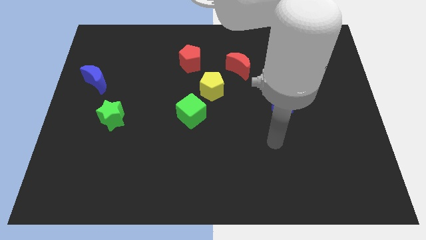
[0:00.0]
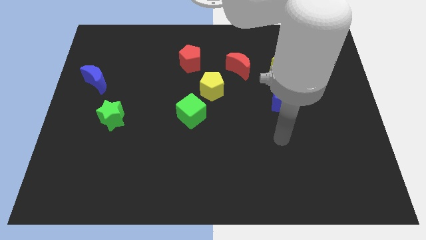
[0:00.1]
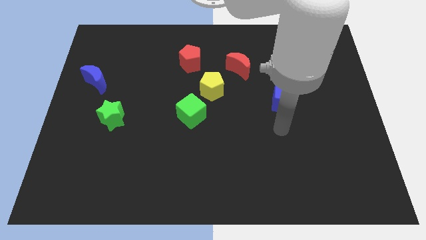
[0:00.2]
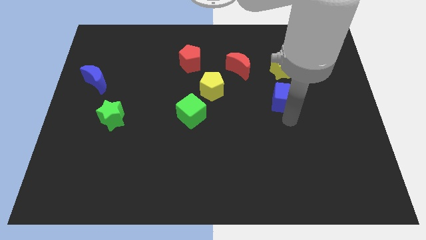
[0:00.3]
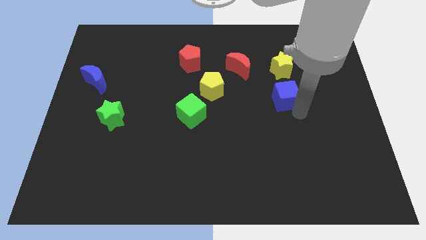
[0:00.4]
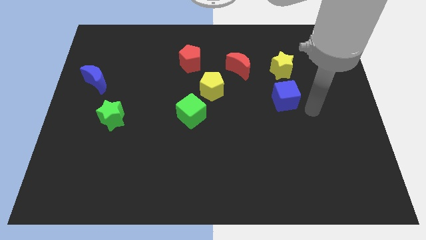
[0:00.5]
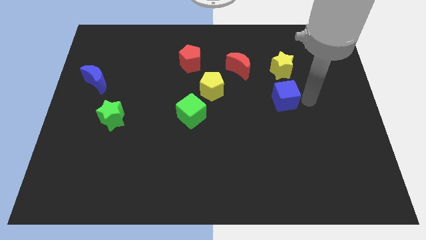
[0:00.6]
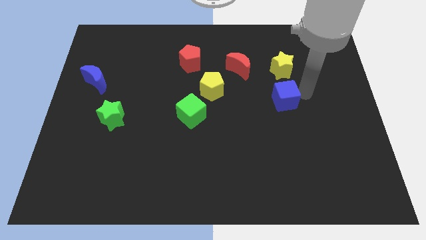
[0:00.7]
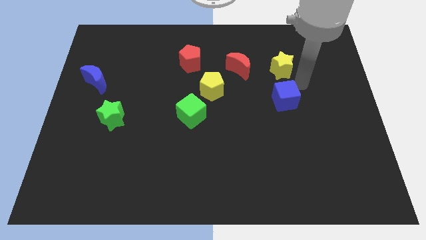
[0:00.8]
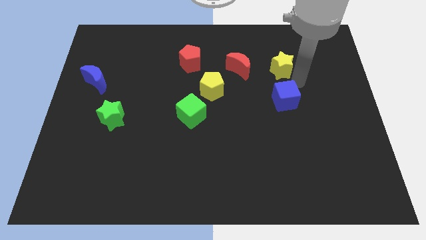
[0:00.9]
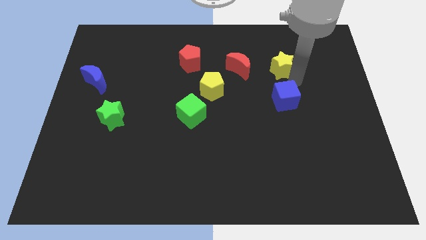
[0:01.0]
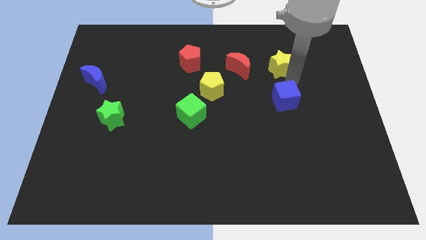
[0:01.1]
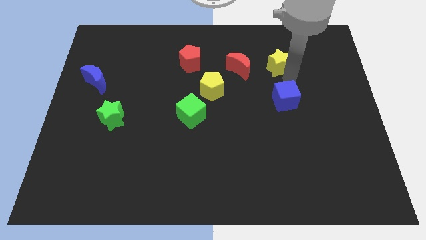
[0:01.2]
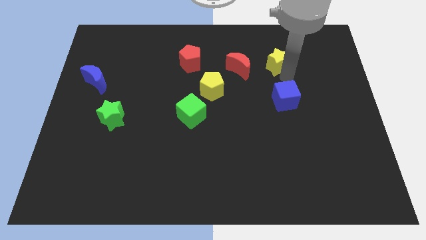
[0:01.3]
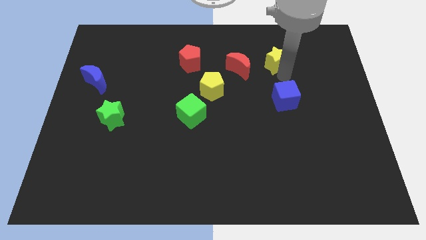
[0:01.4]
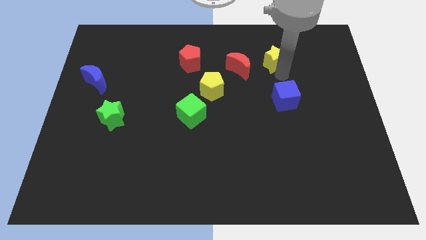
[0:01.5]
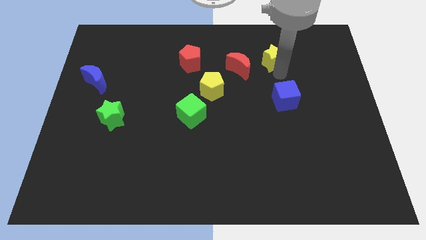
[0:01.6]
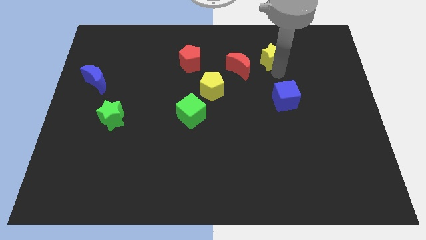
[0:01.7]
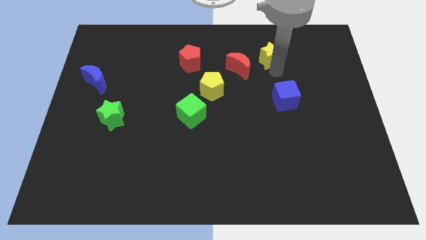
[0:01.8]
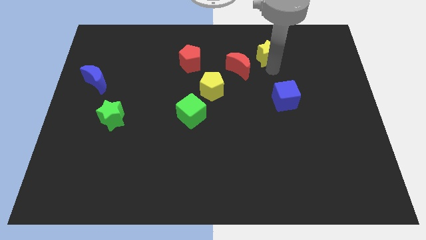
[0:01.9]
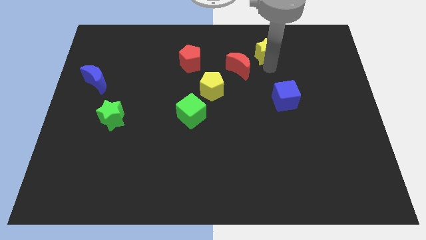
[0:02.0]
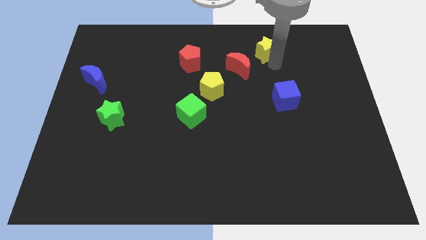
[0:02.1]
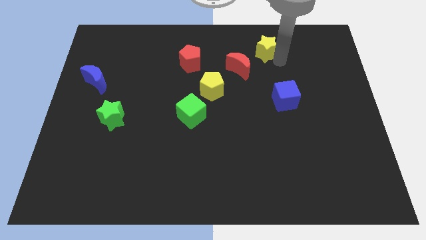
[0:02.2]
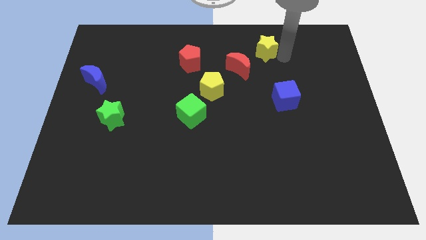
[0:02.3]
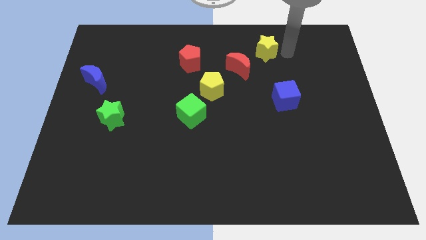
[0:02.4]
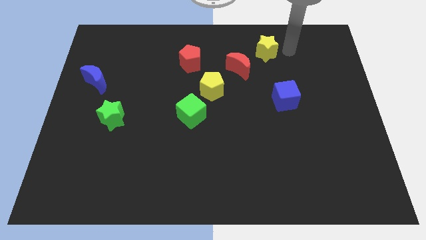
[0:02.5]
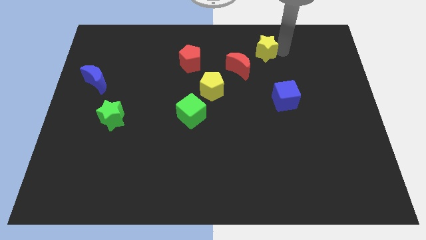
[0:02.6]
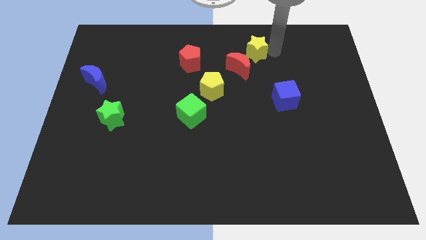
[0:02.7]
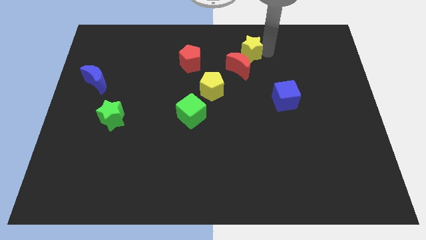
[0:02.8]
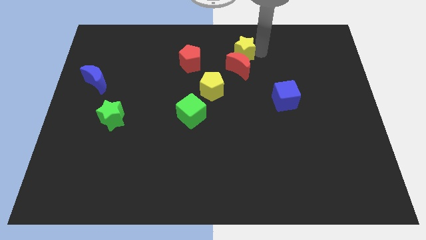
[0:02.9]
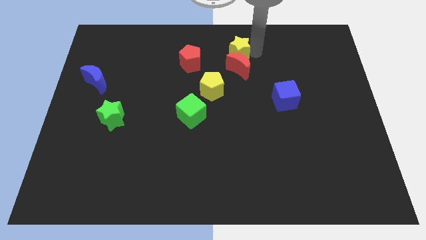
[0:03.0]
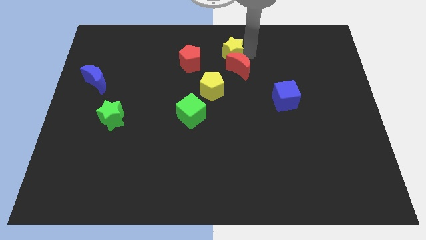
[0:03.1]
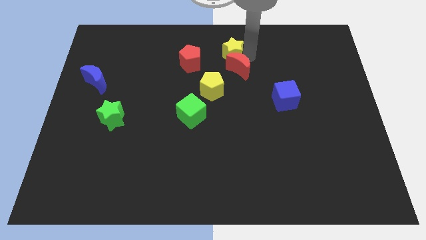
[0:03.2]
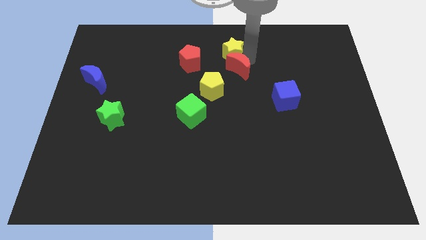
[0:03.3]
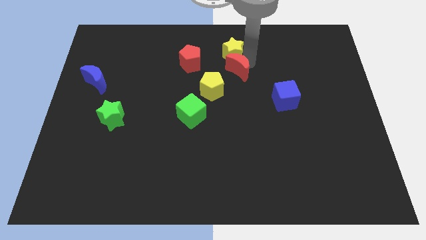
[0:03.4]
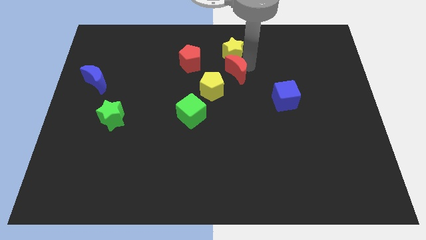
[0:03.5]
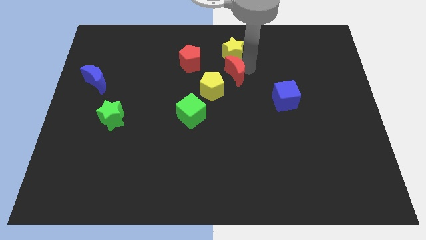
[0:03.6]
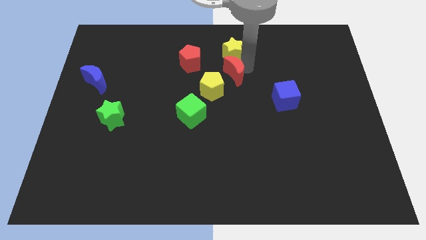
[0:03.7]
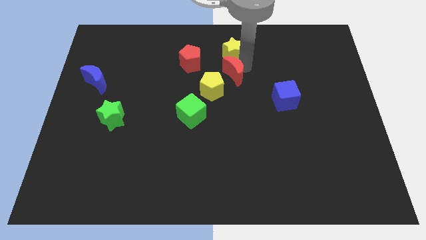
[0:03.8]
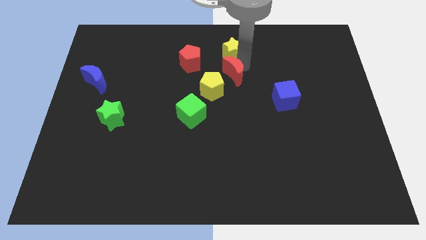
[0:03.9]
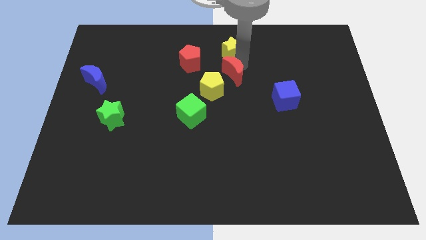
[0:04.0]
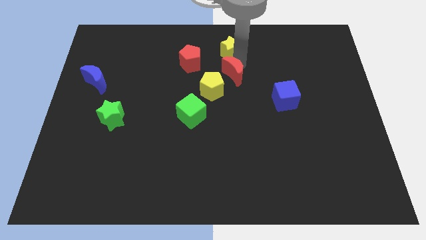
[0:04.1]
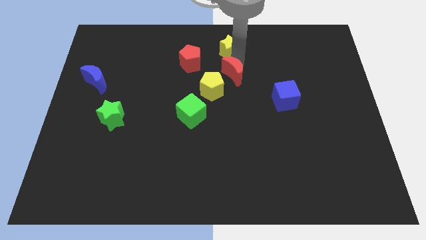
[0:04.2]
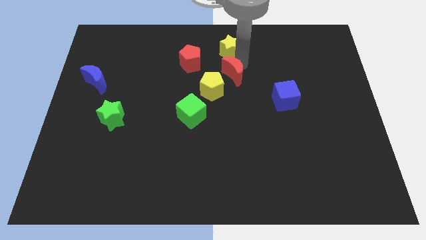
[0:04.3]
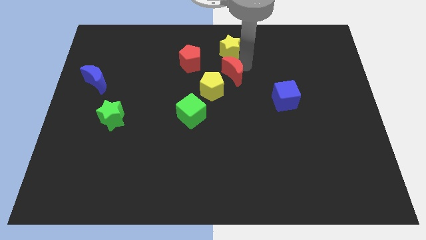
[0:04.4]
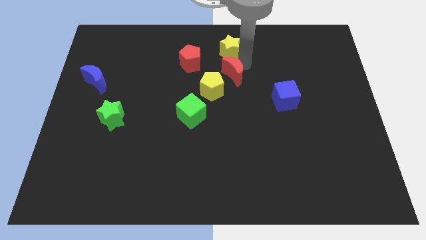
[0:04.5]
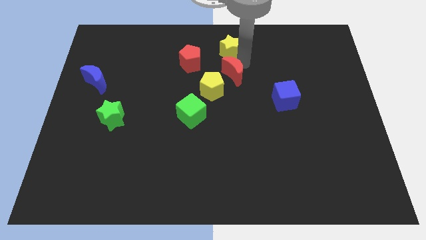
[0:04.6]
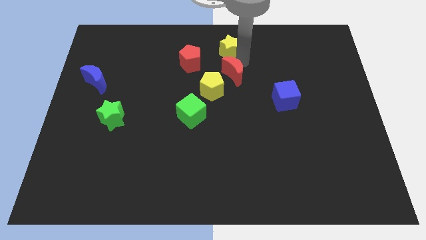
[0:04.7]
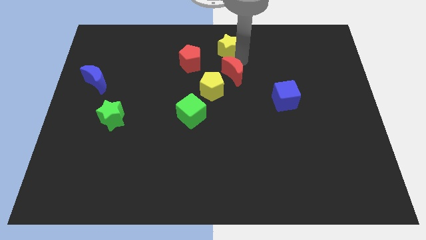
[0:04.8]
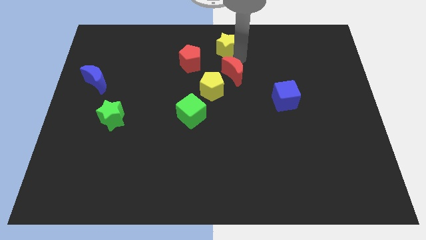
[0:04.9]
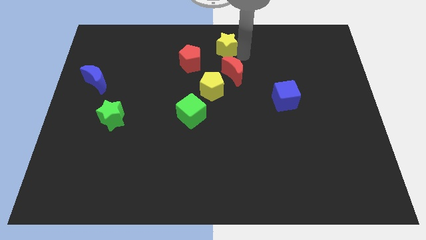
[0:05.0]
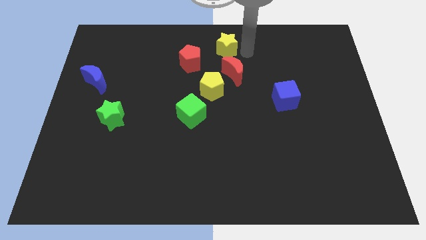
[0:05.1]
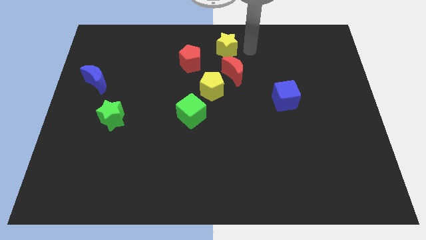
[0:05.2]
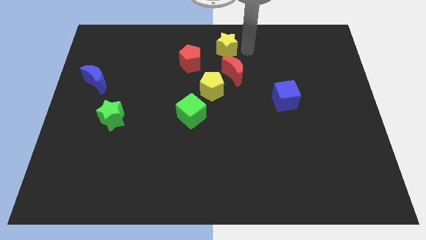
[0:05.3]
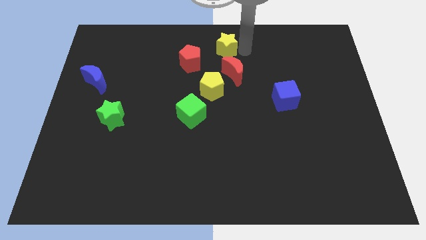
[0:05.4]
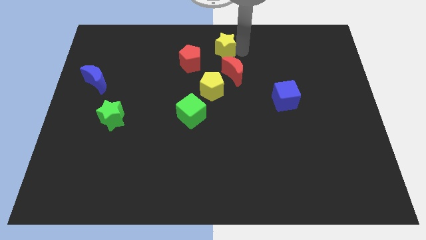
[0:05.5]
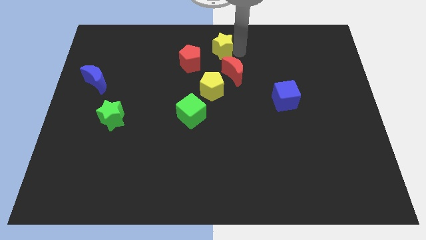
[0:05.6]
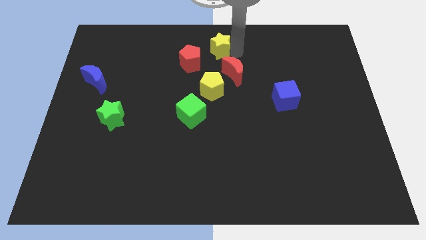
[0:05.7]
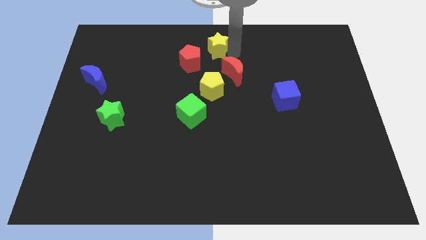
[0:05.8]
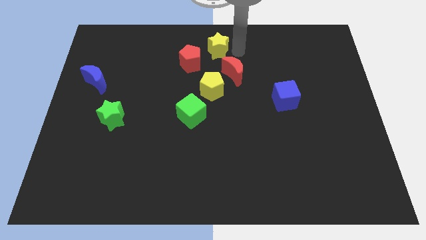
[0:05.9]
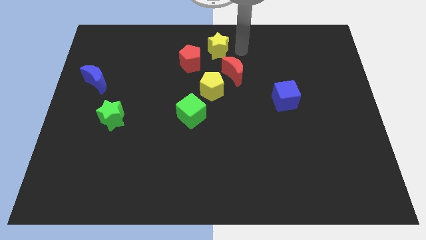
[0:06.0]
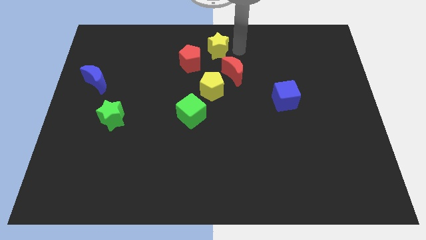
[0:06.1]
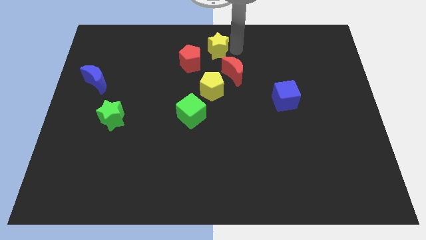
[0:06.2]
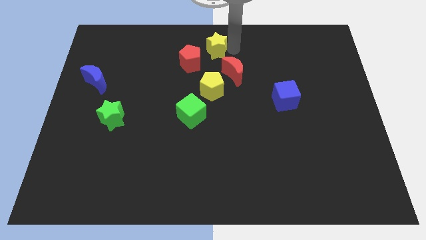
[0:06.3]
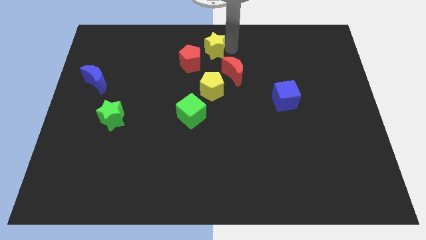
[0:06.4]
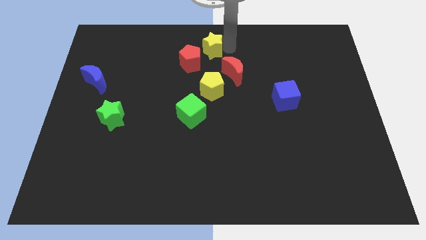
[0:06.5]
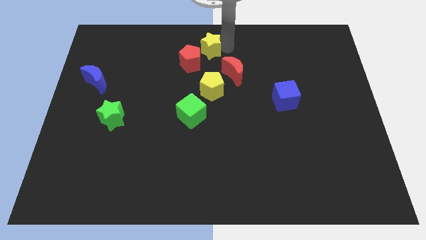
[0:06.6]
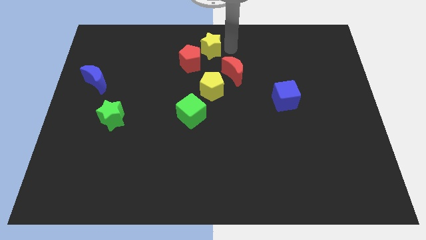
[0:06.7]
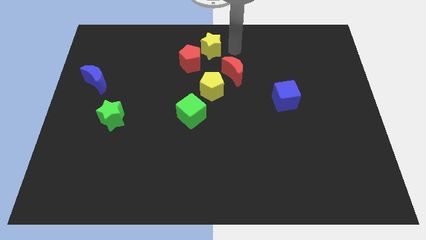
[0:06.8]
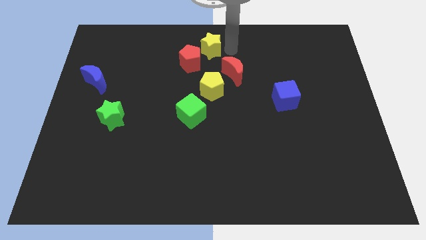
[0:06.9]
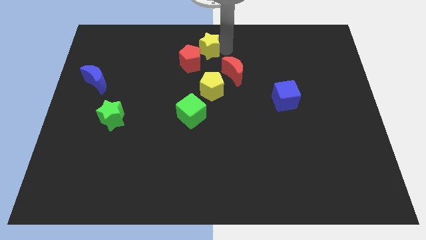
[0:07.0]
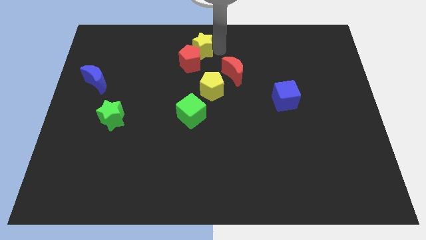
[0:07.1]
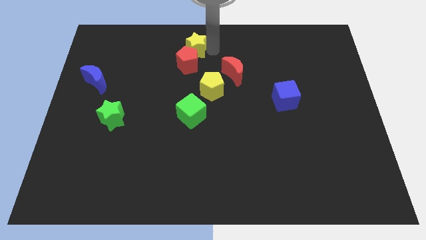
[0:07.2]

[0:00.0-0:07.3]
push the yellow star to the left

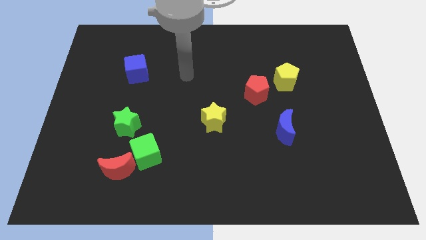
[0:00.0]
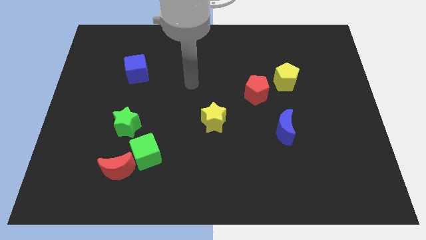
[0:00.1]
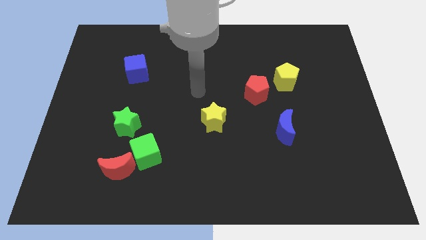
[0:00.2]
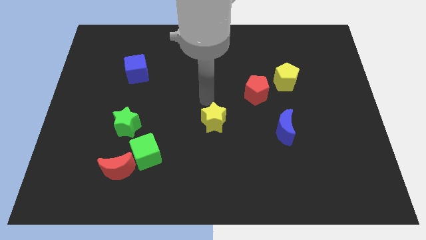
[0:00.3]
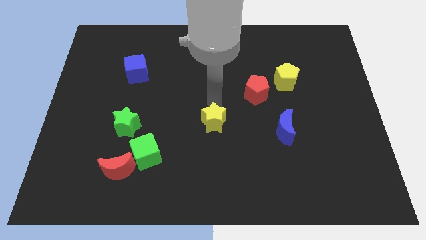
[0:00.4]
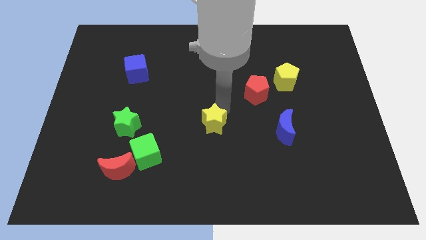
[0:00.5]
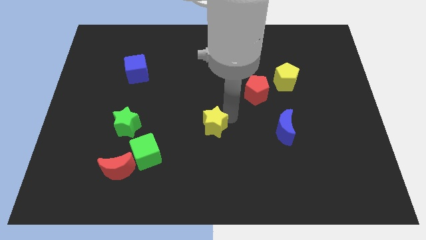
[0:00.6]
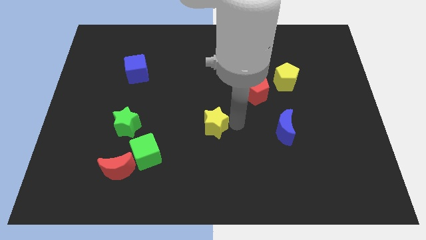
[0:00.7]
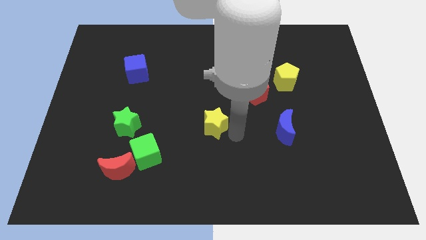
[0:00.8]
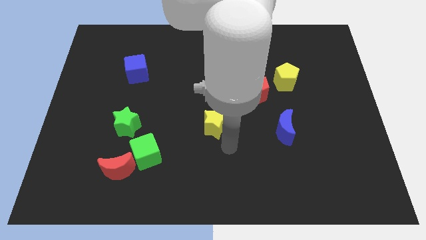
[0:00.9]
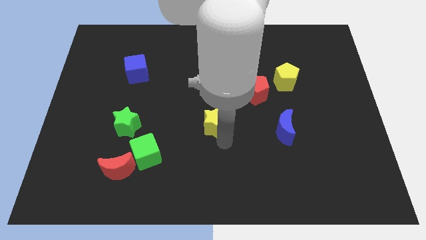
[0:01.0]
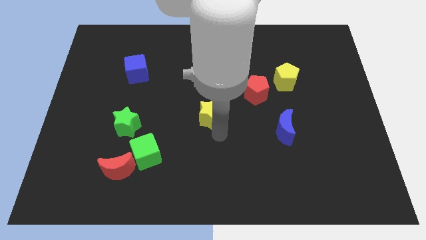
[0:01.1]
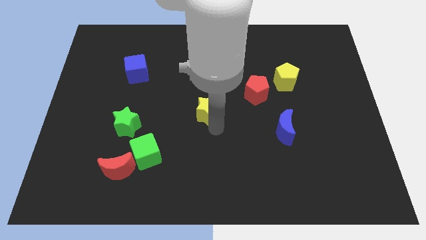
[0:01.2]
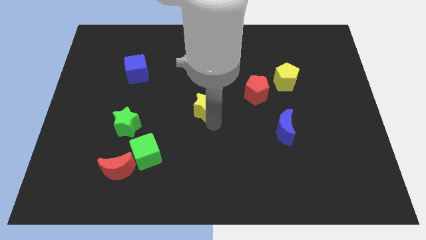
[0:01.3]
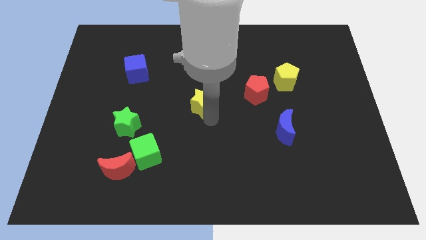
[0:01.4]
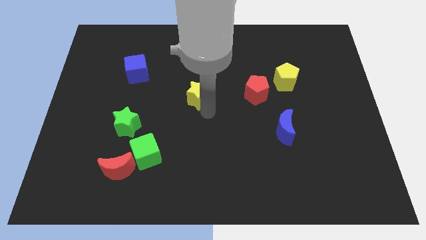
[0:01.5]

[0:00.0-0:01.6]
slightly move the yellow star upwards and then to the left
